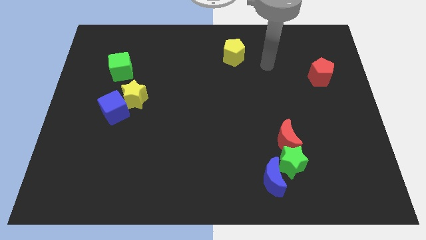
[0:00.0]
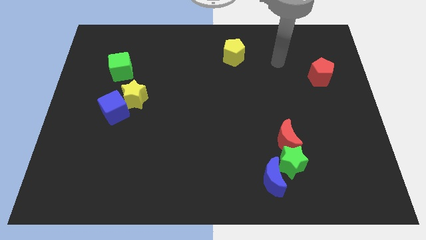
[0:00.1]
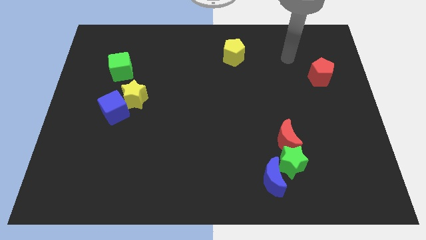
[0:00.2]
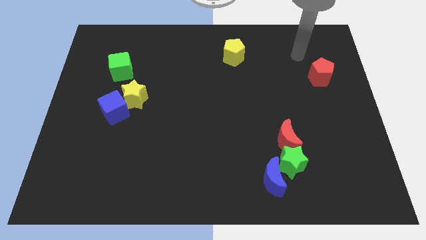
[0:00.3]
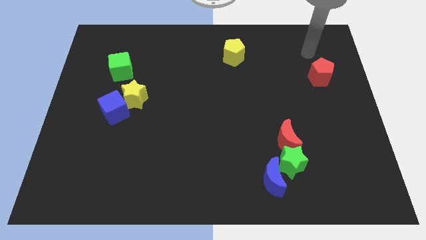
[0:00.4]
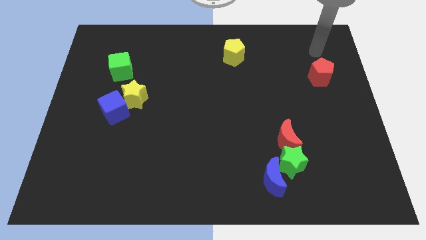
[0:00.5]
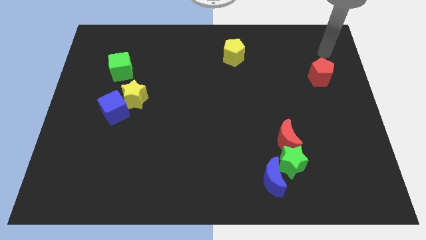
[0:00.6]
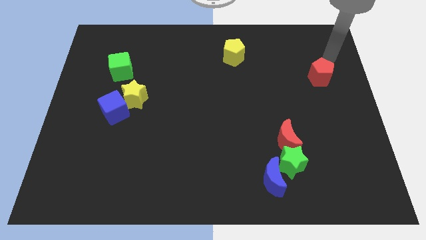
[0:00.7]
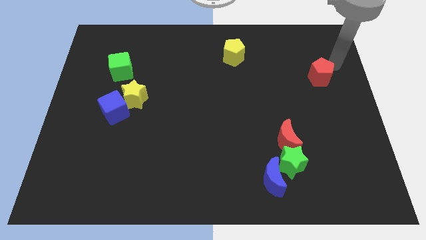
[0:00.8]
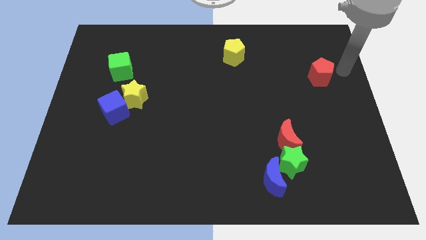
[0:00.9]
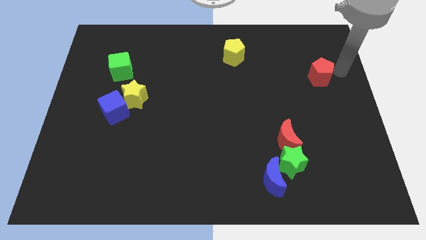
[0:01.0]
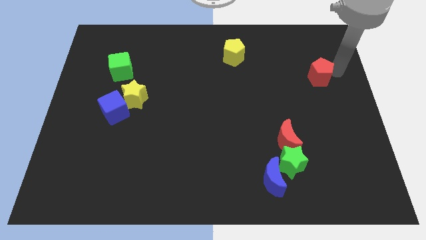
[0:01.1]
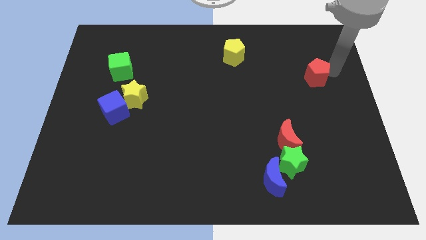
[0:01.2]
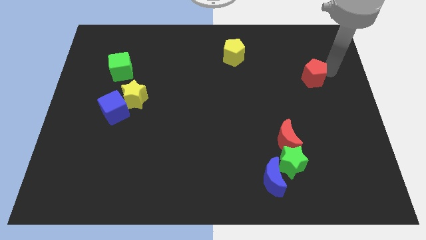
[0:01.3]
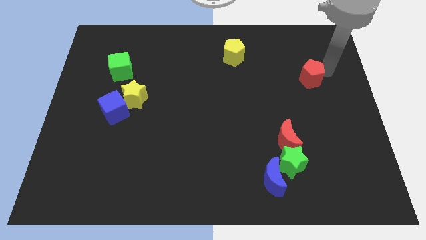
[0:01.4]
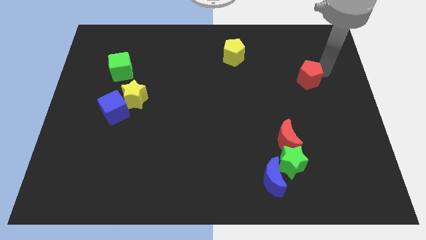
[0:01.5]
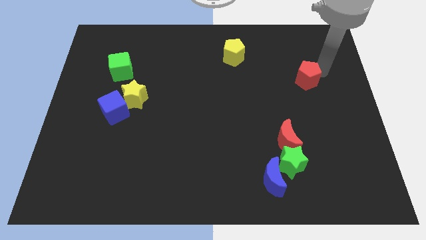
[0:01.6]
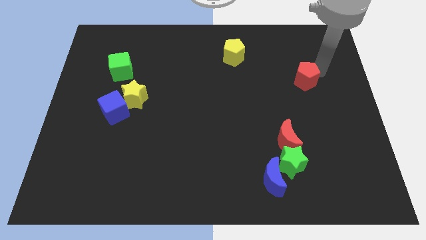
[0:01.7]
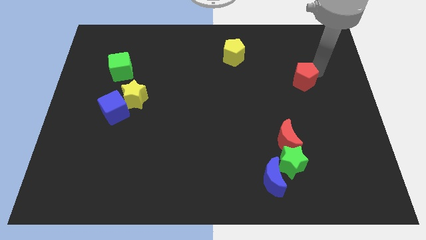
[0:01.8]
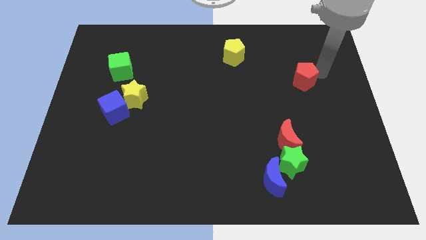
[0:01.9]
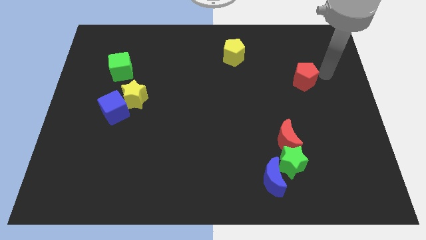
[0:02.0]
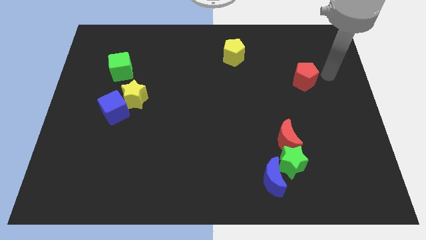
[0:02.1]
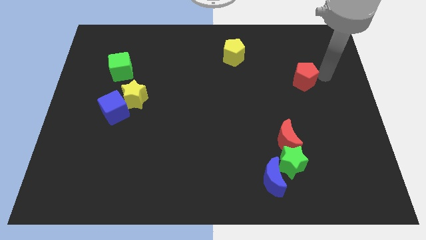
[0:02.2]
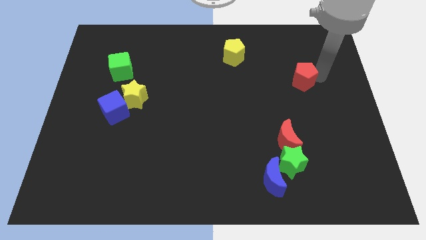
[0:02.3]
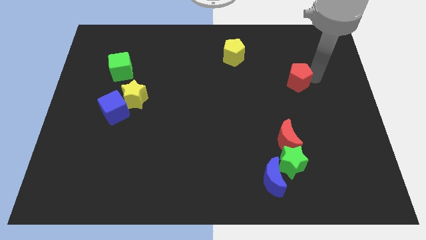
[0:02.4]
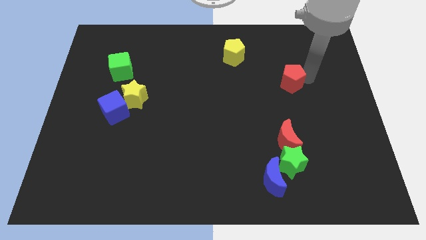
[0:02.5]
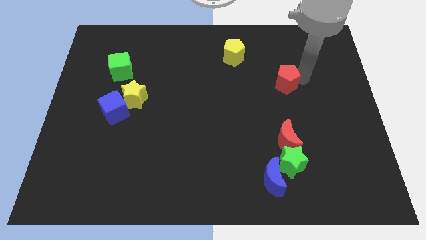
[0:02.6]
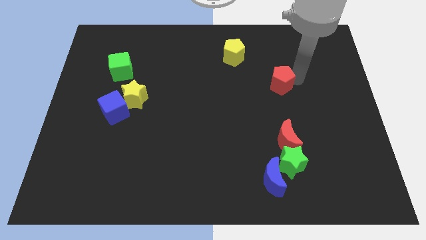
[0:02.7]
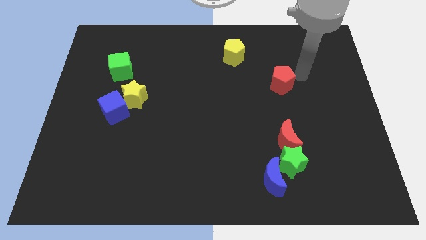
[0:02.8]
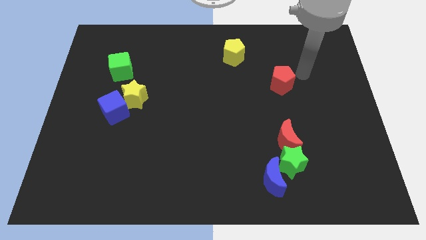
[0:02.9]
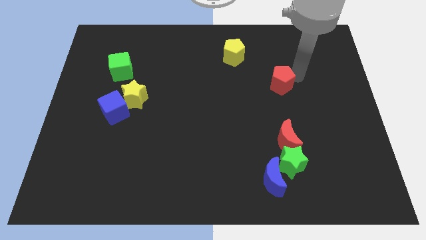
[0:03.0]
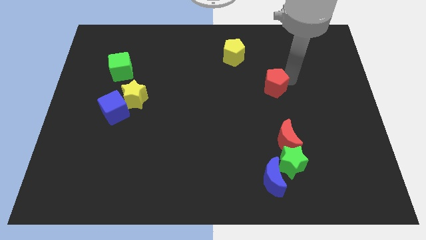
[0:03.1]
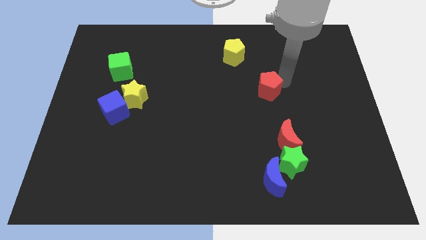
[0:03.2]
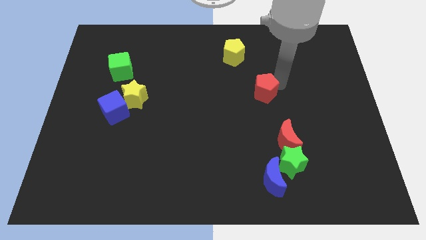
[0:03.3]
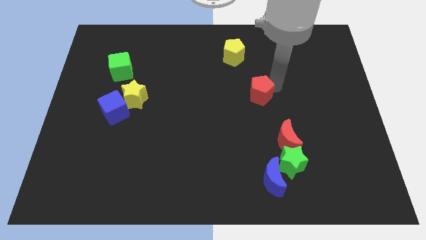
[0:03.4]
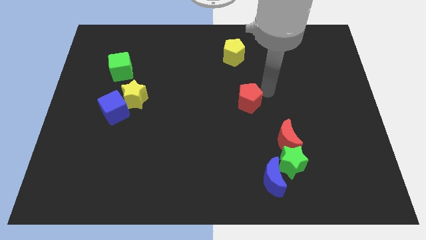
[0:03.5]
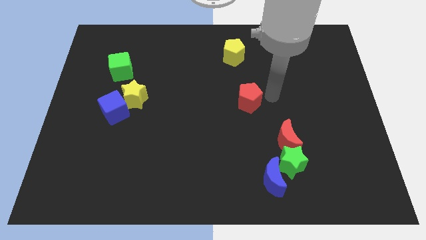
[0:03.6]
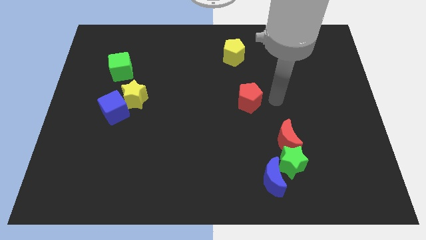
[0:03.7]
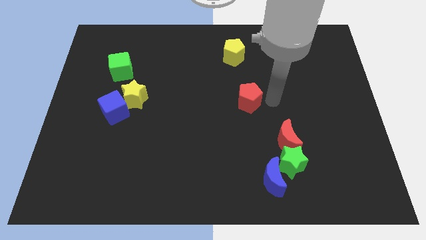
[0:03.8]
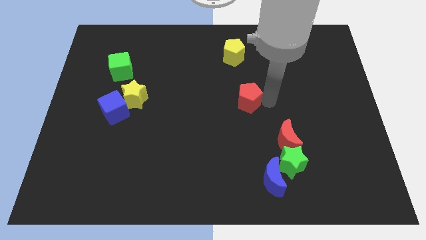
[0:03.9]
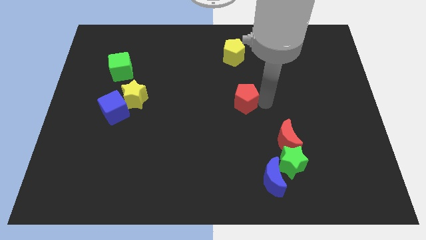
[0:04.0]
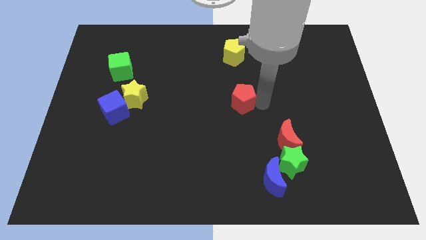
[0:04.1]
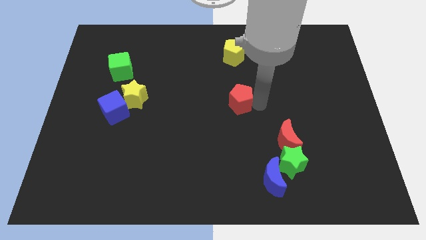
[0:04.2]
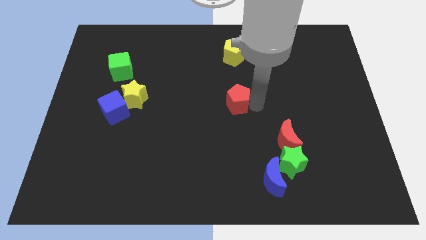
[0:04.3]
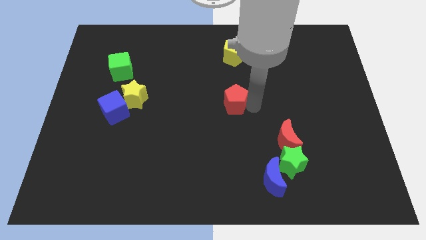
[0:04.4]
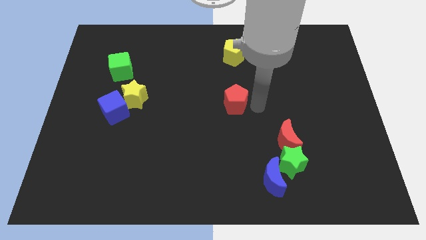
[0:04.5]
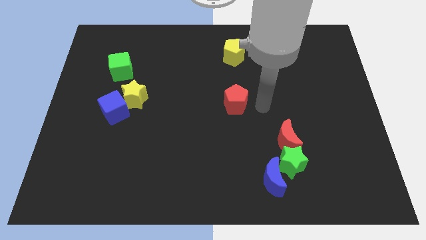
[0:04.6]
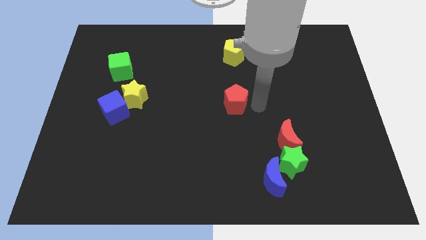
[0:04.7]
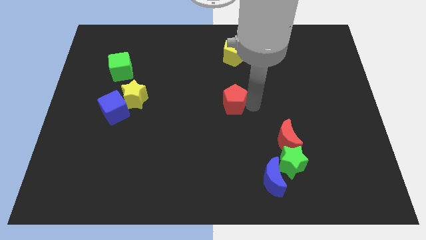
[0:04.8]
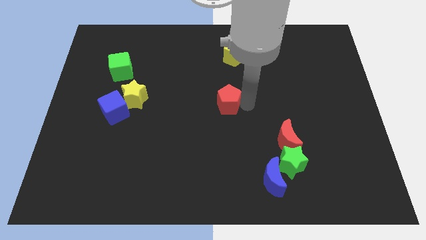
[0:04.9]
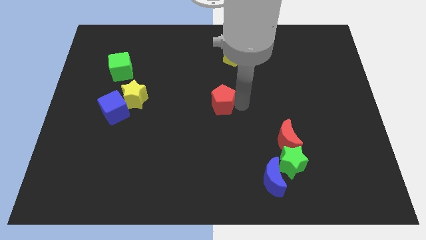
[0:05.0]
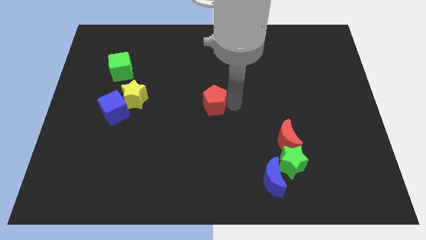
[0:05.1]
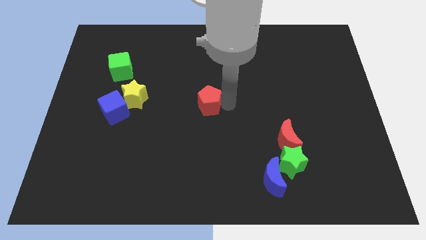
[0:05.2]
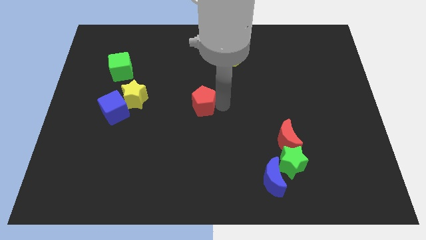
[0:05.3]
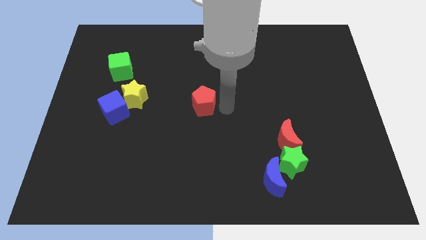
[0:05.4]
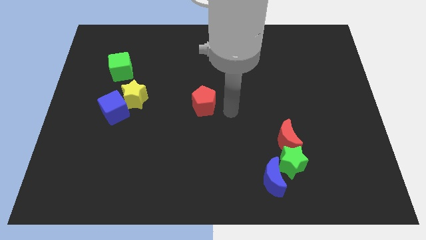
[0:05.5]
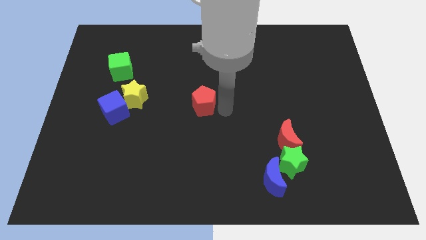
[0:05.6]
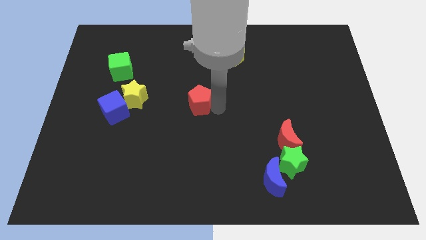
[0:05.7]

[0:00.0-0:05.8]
move the red pentagon right of the yellow star

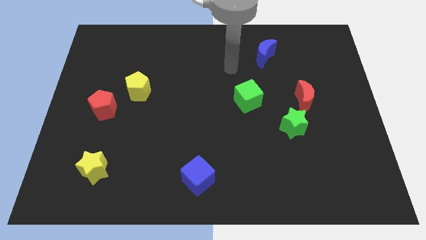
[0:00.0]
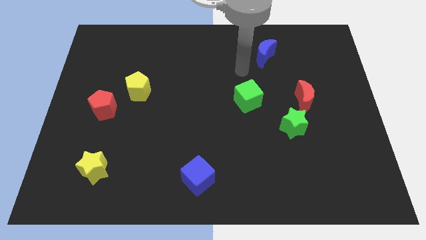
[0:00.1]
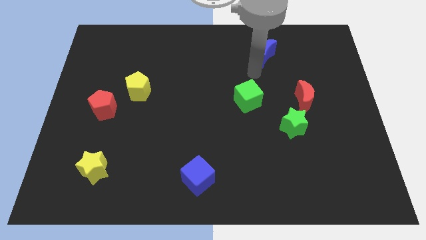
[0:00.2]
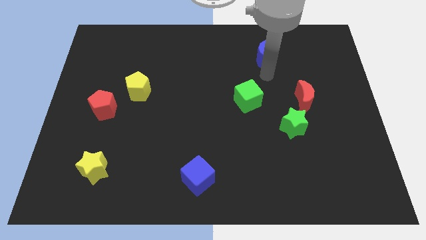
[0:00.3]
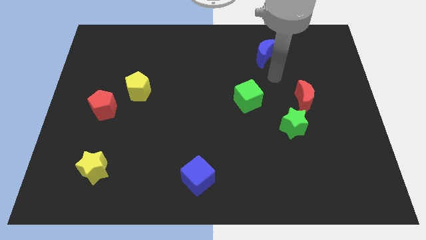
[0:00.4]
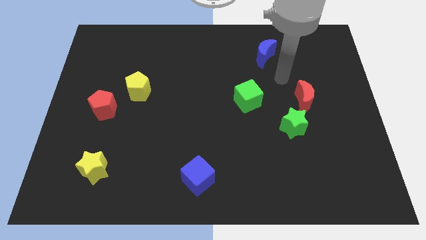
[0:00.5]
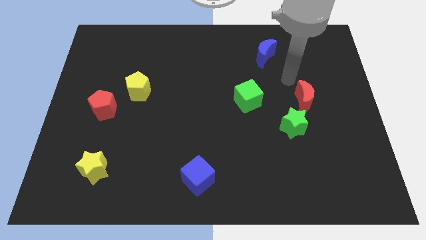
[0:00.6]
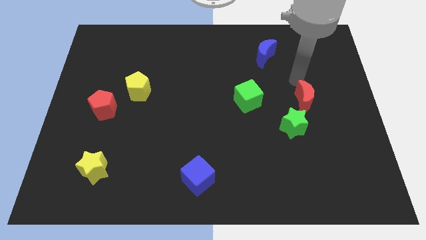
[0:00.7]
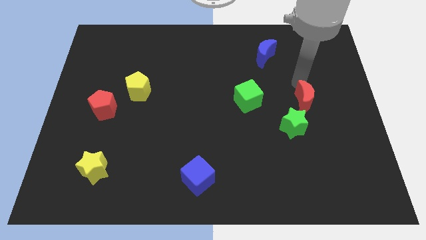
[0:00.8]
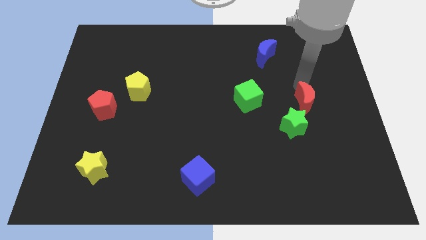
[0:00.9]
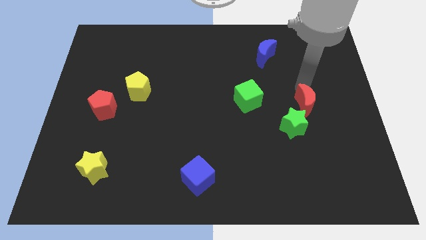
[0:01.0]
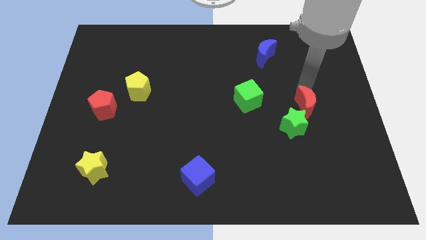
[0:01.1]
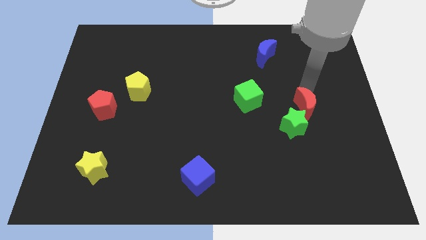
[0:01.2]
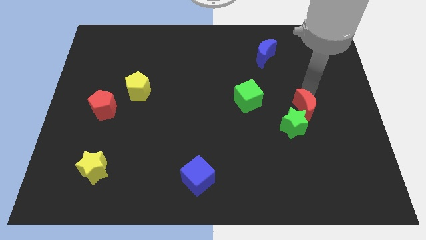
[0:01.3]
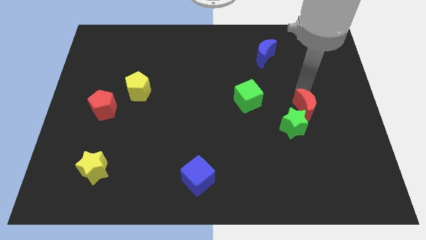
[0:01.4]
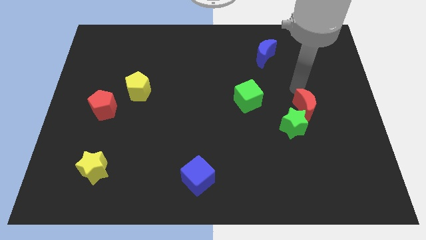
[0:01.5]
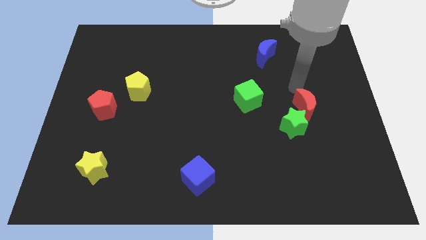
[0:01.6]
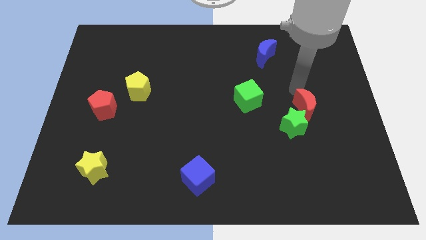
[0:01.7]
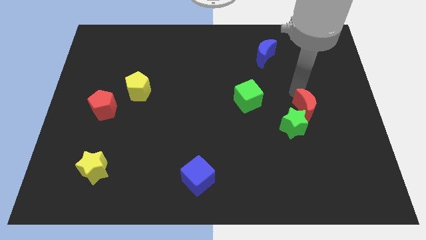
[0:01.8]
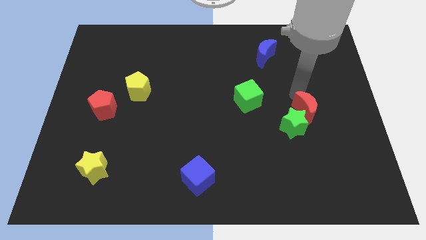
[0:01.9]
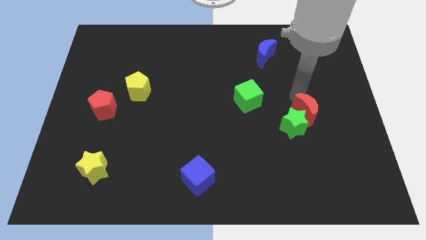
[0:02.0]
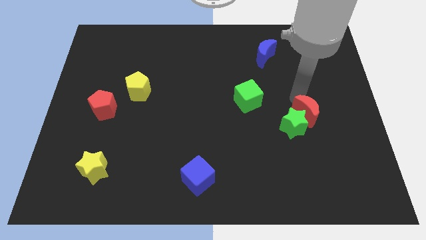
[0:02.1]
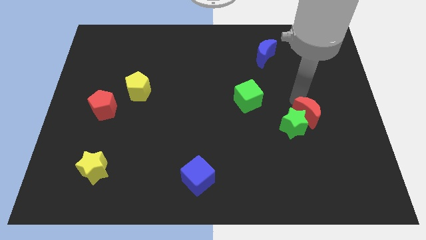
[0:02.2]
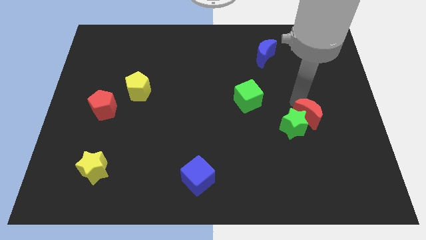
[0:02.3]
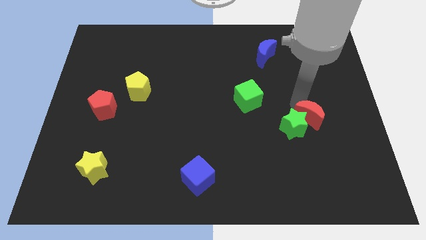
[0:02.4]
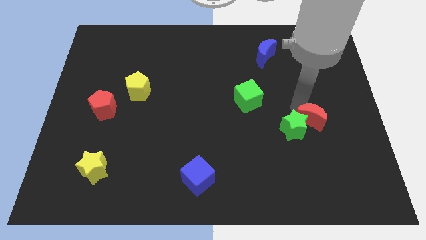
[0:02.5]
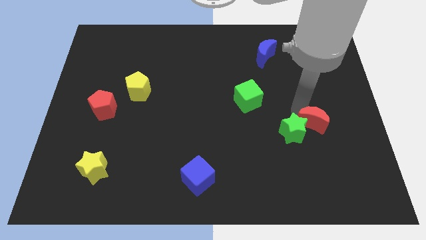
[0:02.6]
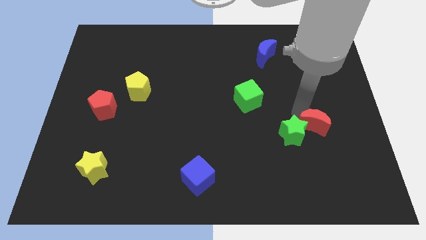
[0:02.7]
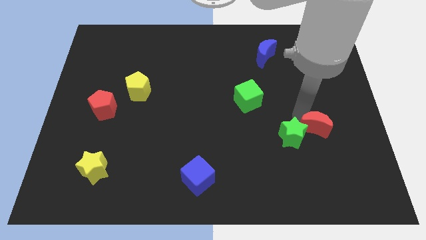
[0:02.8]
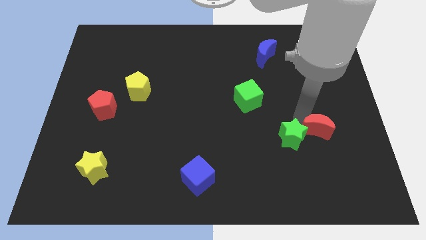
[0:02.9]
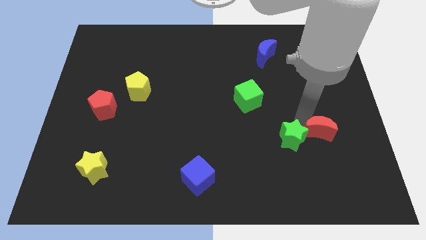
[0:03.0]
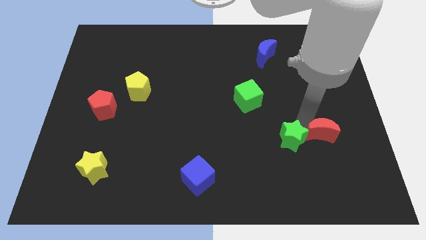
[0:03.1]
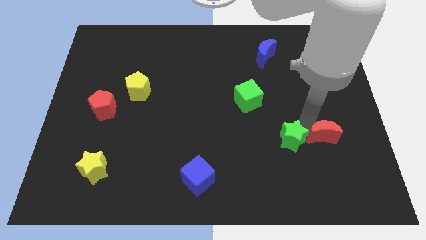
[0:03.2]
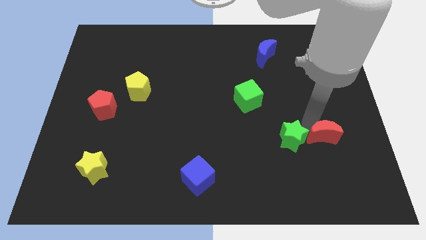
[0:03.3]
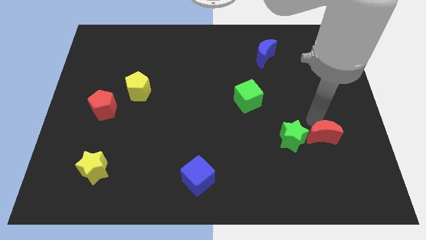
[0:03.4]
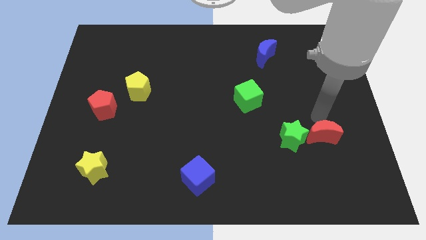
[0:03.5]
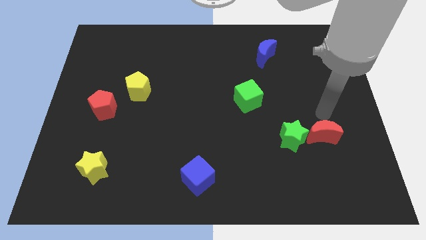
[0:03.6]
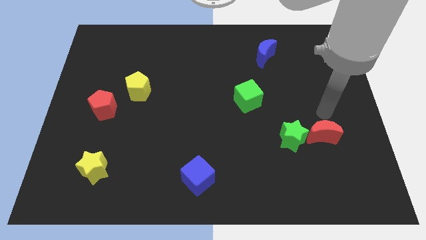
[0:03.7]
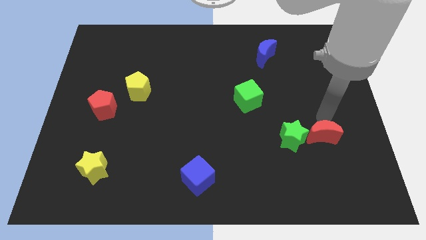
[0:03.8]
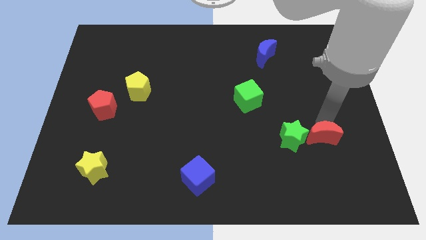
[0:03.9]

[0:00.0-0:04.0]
move the red moon to the bottom right of the green star
